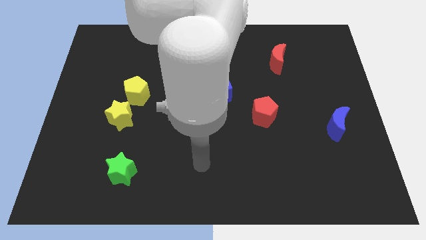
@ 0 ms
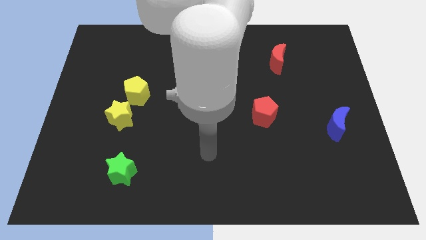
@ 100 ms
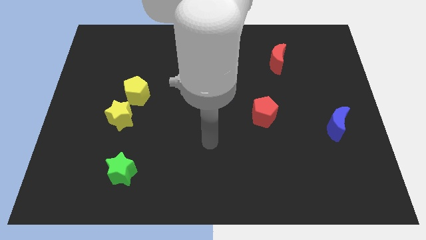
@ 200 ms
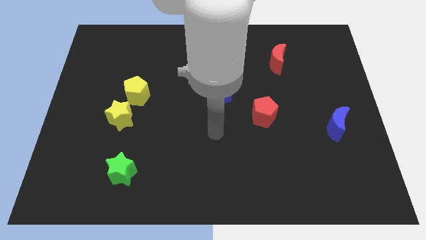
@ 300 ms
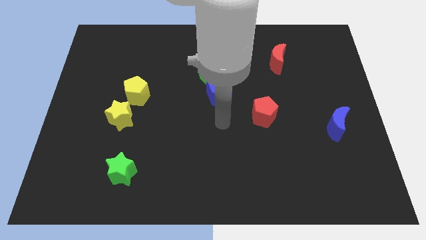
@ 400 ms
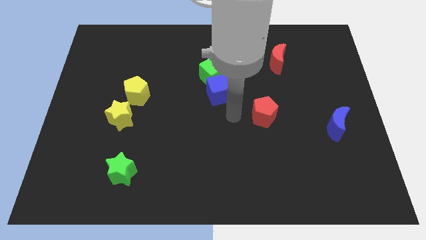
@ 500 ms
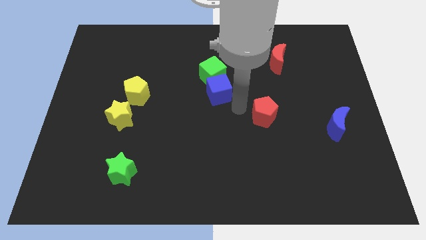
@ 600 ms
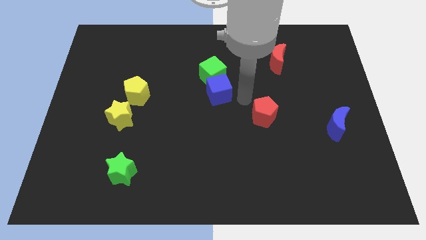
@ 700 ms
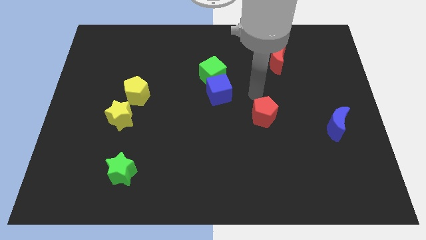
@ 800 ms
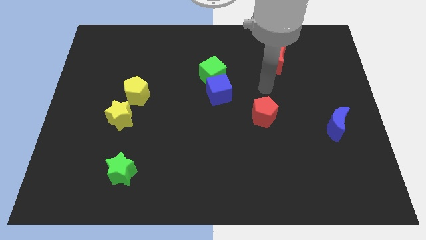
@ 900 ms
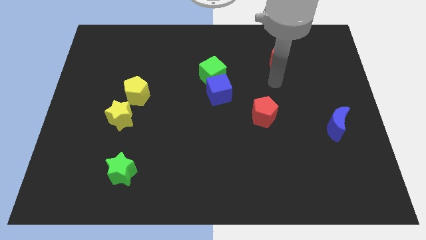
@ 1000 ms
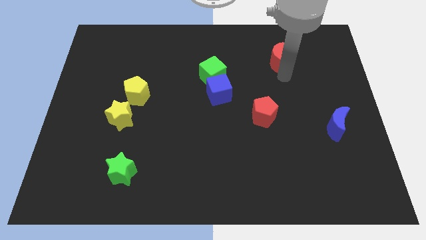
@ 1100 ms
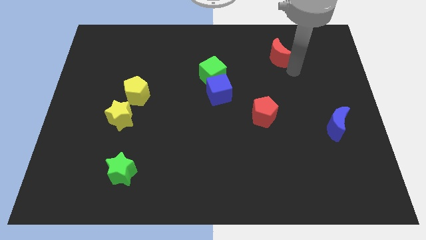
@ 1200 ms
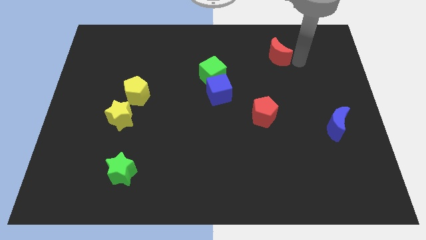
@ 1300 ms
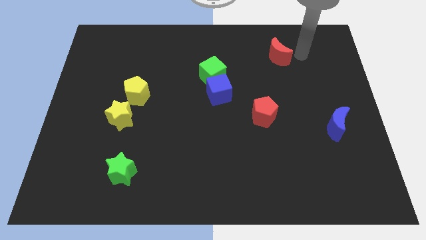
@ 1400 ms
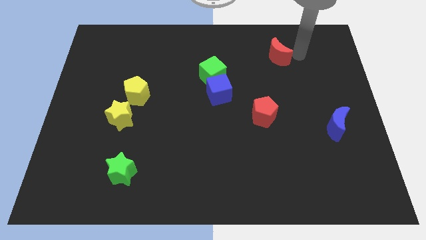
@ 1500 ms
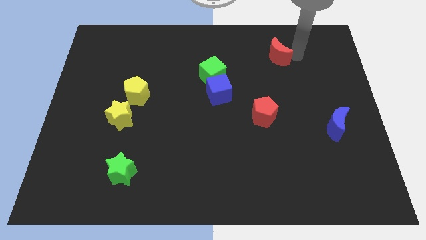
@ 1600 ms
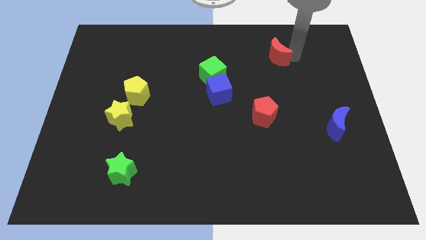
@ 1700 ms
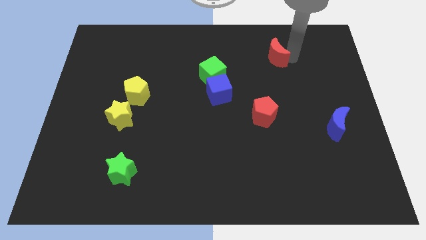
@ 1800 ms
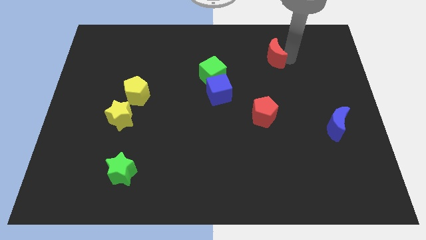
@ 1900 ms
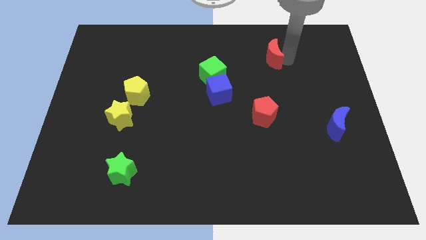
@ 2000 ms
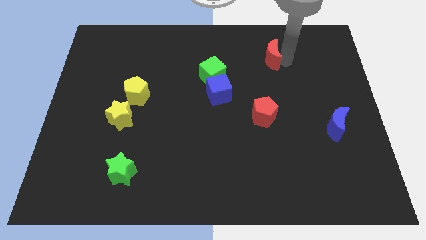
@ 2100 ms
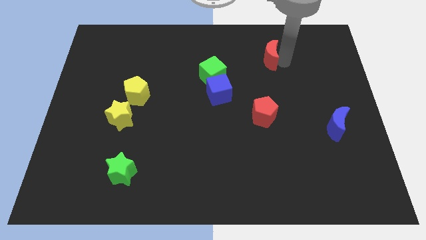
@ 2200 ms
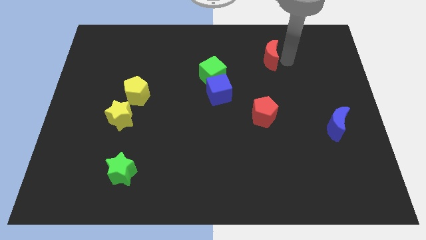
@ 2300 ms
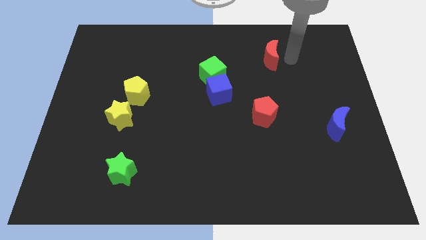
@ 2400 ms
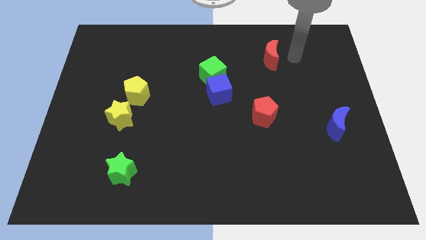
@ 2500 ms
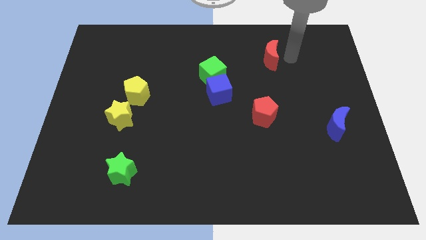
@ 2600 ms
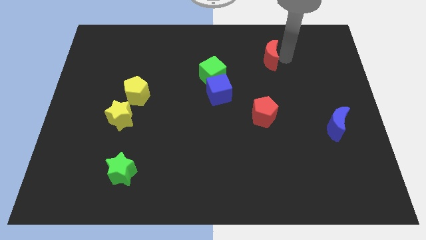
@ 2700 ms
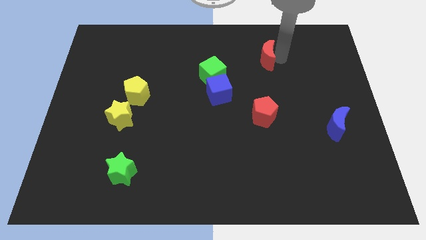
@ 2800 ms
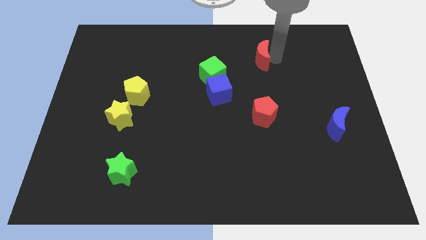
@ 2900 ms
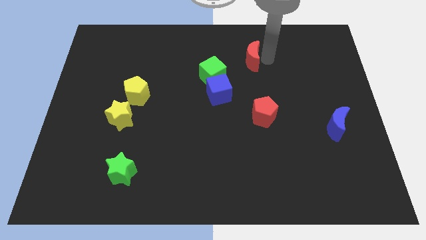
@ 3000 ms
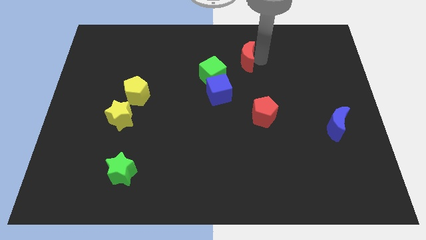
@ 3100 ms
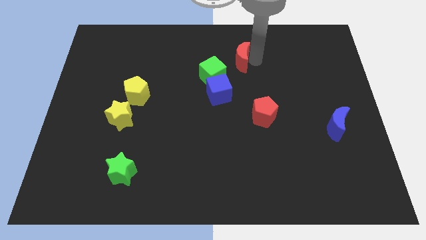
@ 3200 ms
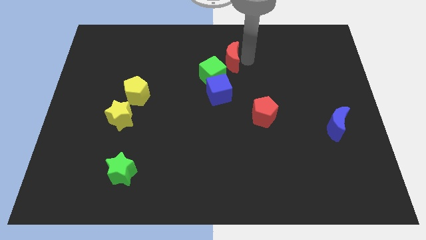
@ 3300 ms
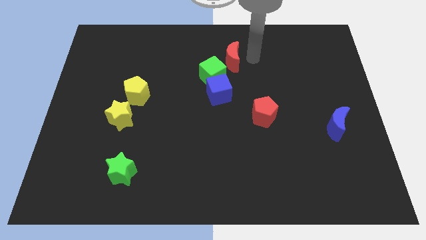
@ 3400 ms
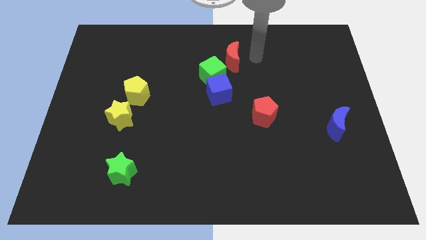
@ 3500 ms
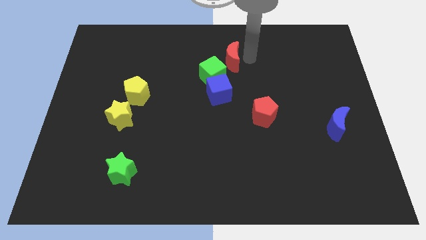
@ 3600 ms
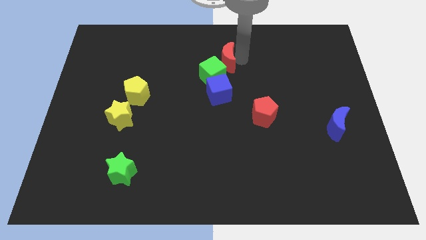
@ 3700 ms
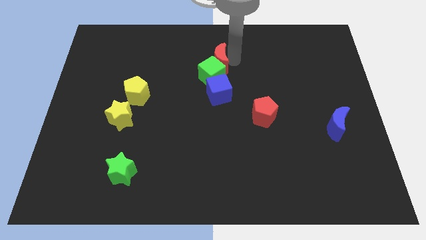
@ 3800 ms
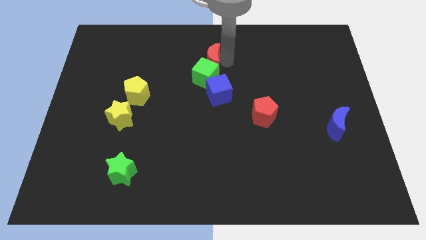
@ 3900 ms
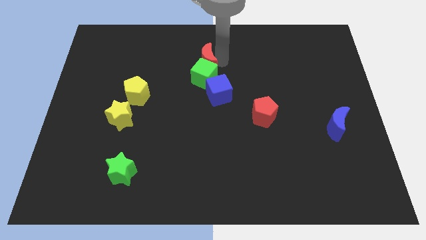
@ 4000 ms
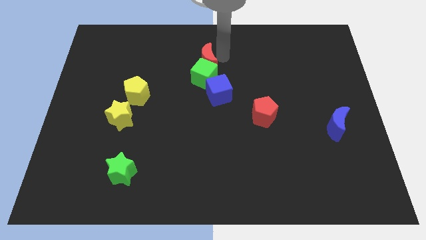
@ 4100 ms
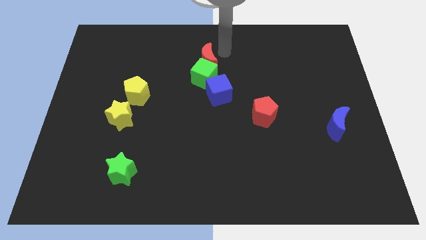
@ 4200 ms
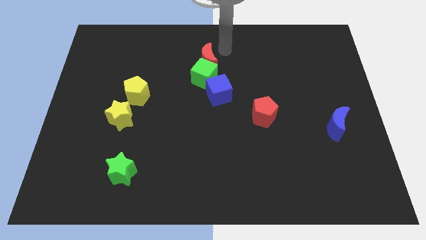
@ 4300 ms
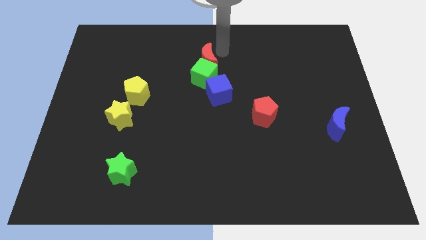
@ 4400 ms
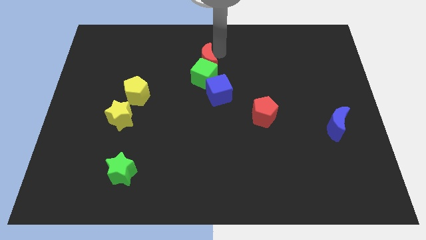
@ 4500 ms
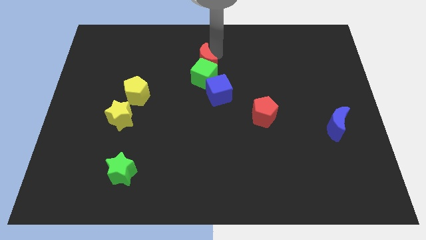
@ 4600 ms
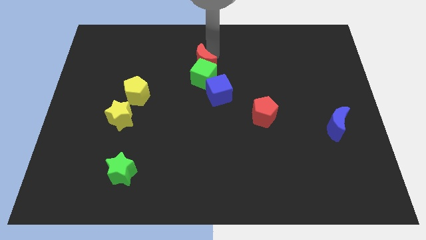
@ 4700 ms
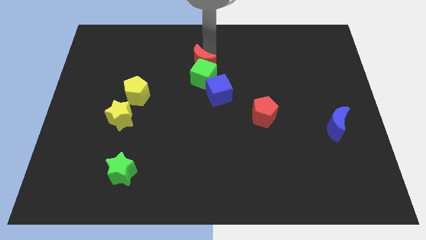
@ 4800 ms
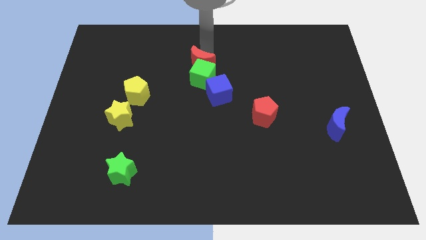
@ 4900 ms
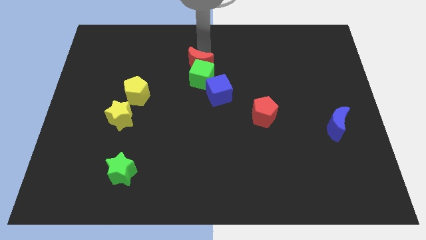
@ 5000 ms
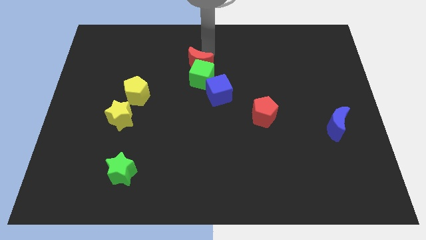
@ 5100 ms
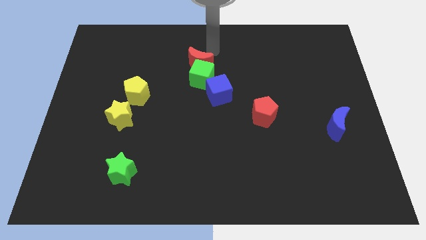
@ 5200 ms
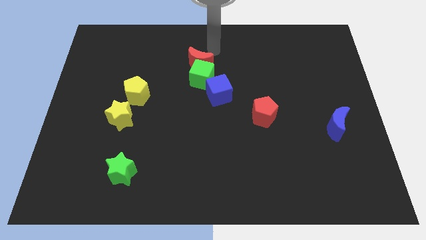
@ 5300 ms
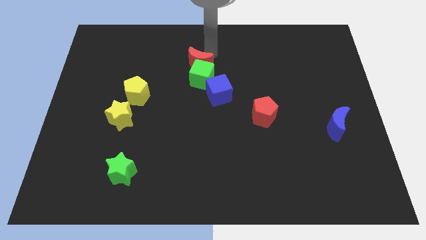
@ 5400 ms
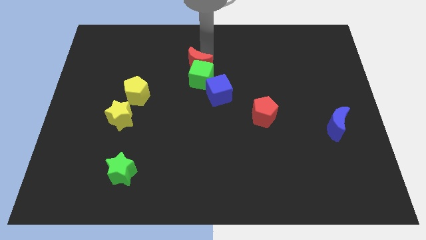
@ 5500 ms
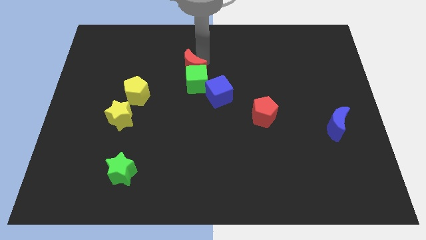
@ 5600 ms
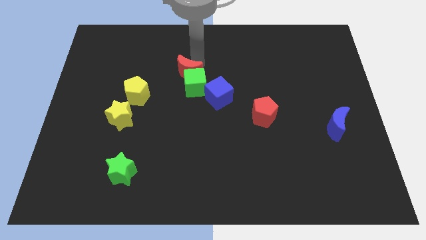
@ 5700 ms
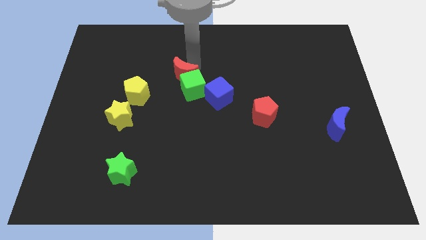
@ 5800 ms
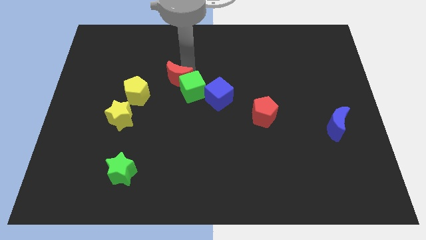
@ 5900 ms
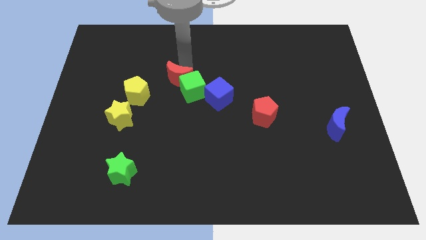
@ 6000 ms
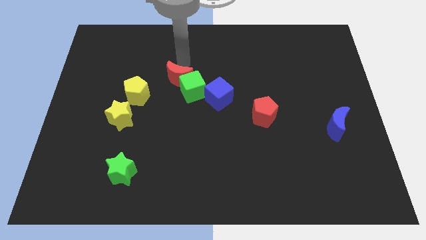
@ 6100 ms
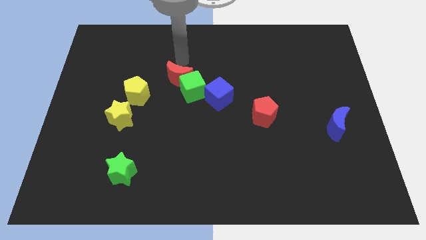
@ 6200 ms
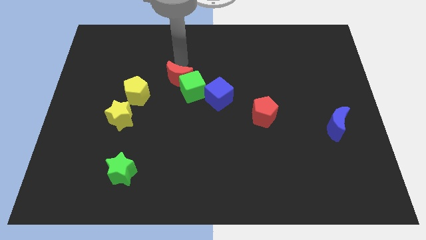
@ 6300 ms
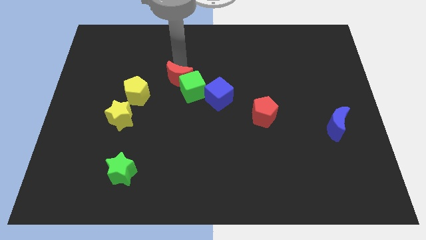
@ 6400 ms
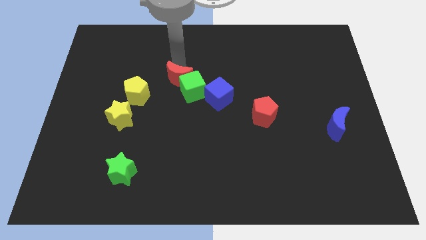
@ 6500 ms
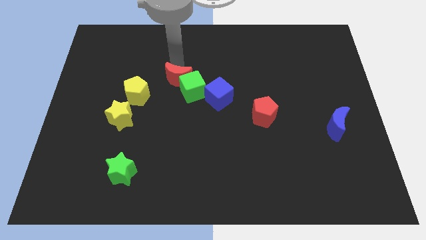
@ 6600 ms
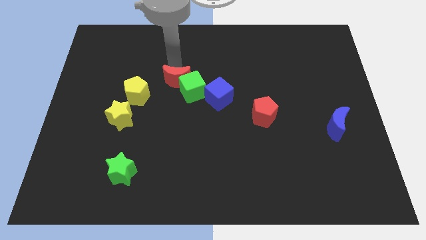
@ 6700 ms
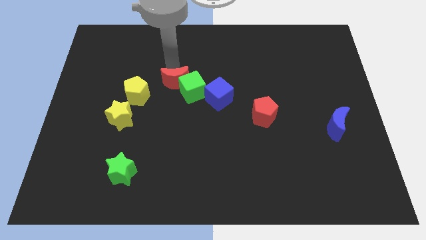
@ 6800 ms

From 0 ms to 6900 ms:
put the red moon just left of the blue cube

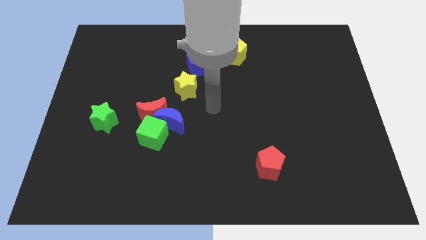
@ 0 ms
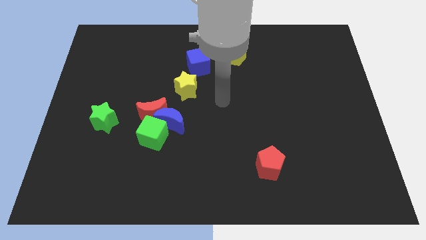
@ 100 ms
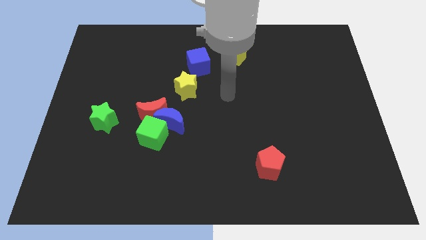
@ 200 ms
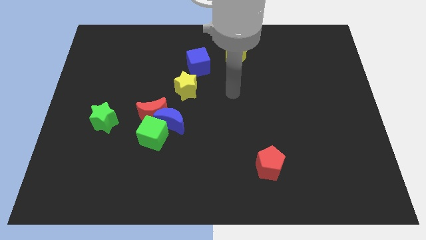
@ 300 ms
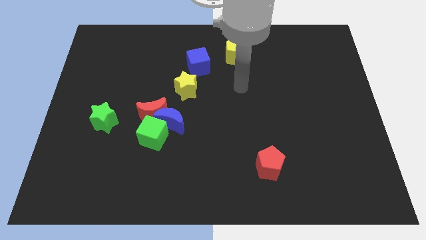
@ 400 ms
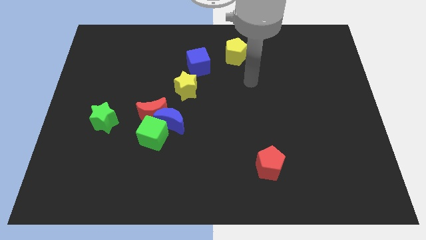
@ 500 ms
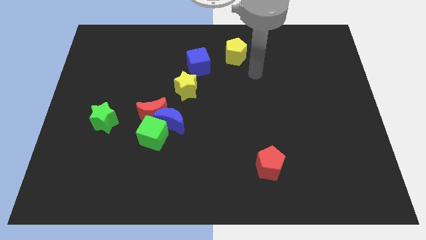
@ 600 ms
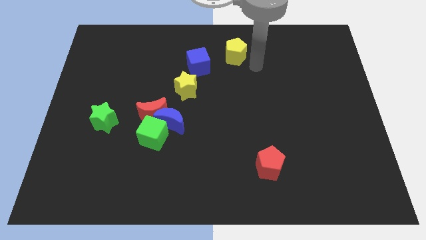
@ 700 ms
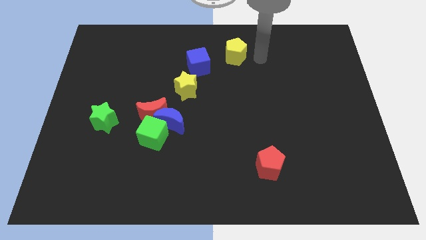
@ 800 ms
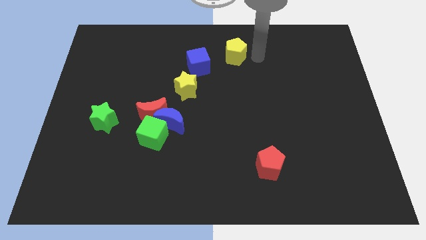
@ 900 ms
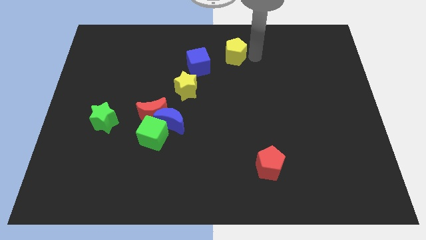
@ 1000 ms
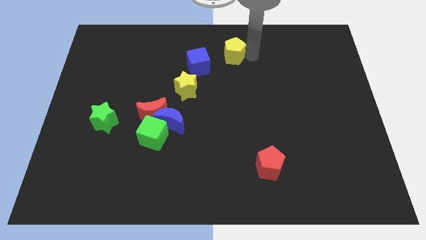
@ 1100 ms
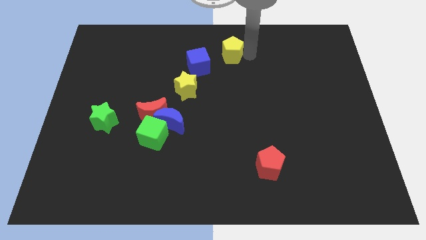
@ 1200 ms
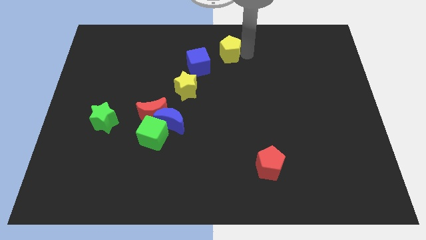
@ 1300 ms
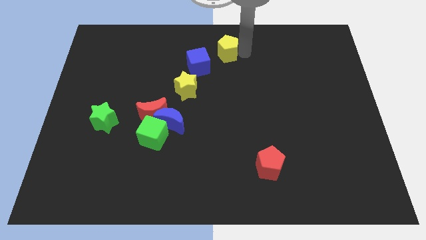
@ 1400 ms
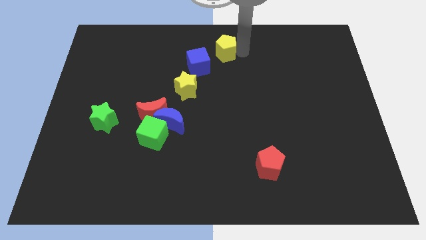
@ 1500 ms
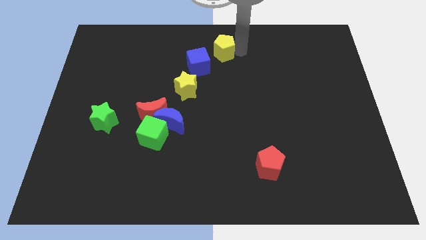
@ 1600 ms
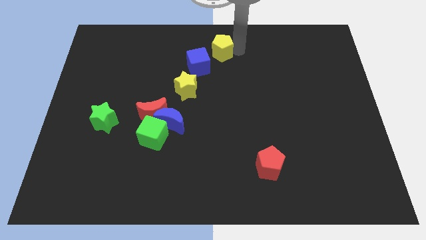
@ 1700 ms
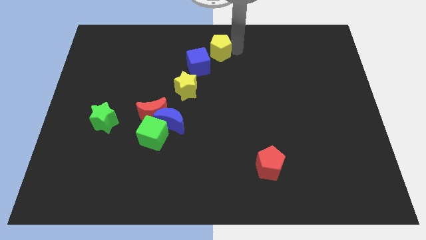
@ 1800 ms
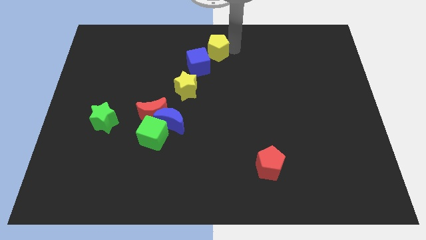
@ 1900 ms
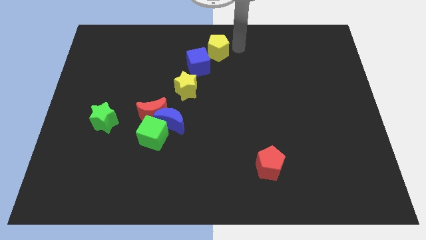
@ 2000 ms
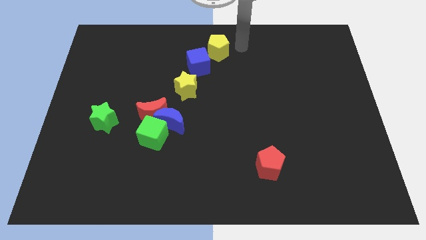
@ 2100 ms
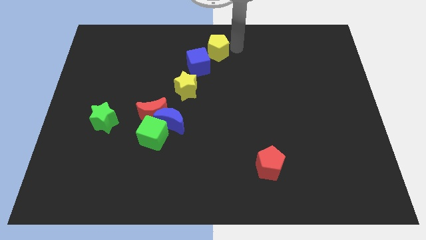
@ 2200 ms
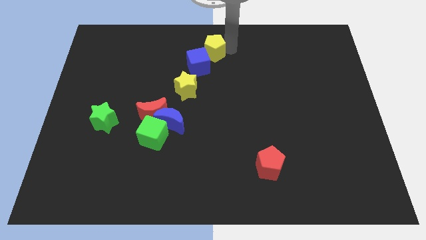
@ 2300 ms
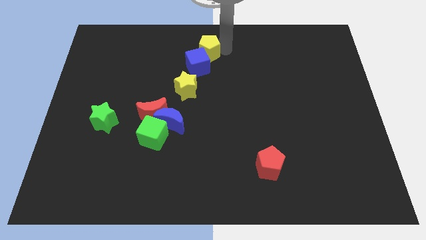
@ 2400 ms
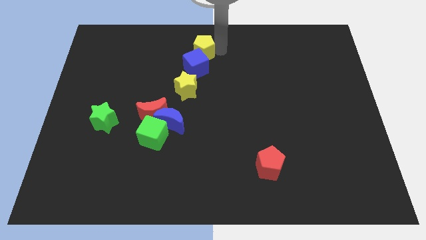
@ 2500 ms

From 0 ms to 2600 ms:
slide the yellow pentagon above the yellow star
